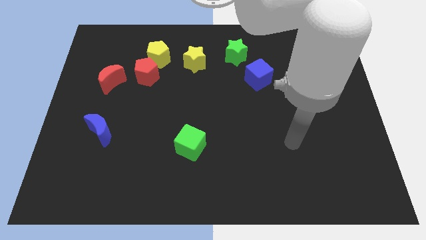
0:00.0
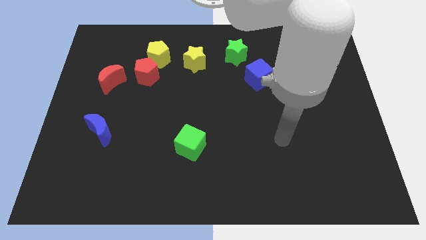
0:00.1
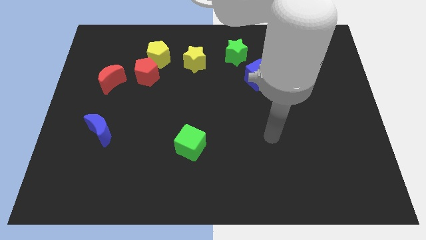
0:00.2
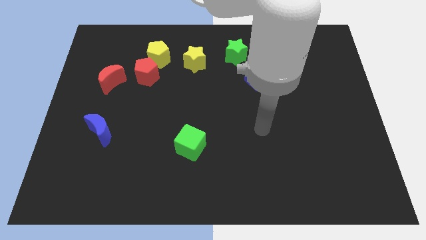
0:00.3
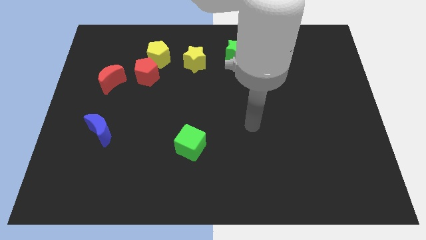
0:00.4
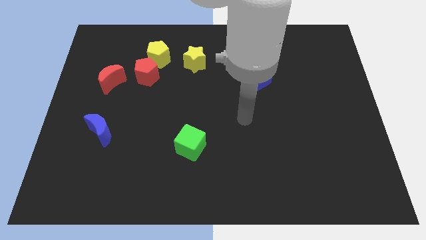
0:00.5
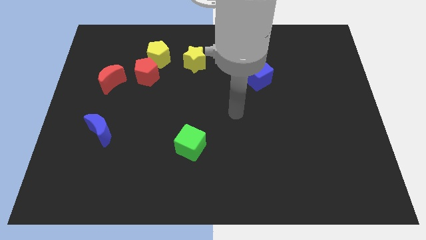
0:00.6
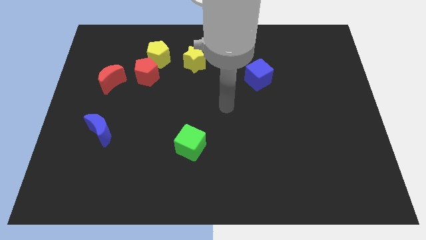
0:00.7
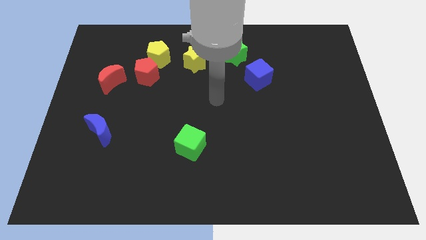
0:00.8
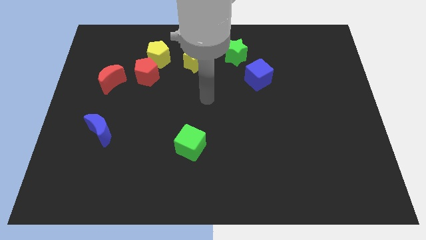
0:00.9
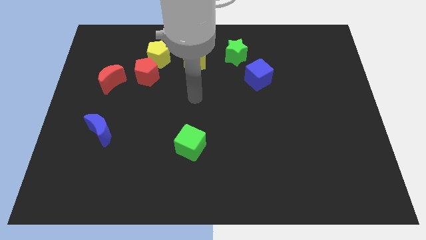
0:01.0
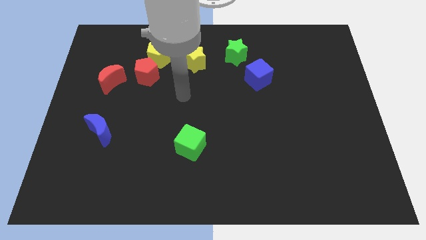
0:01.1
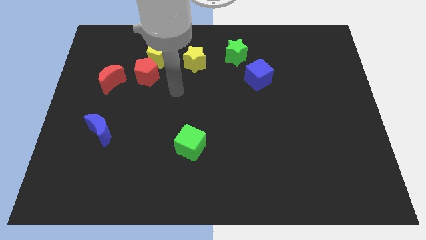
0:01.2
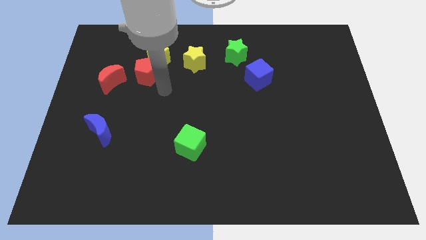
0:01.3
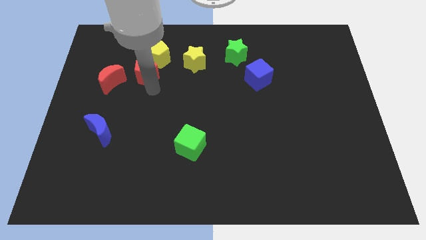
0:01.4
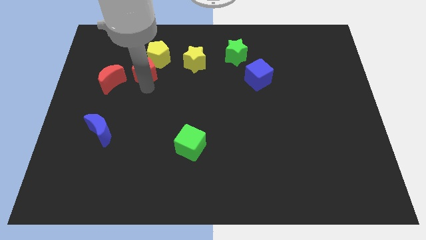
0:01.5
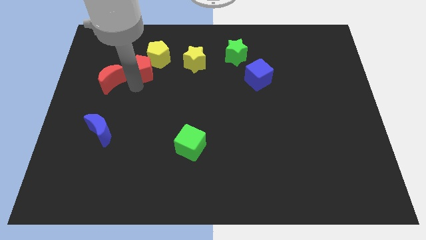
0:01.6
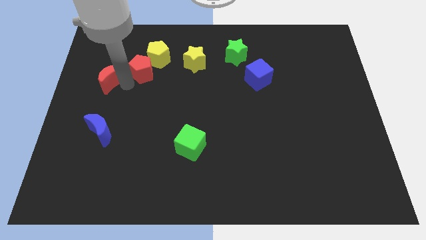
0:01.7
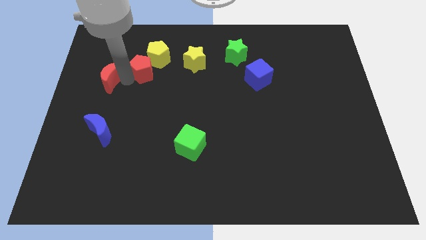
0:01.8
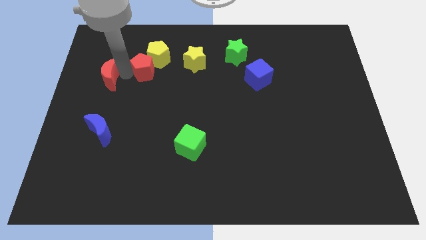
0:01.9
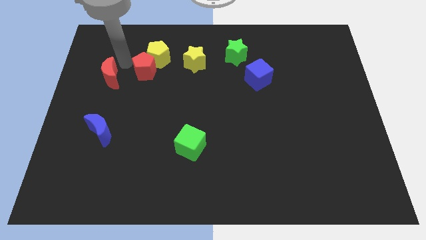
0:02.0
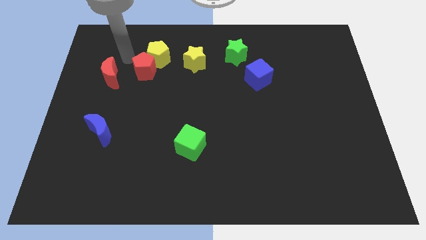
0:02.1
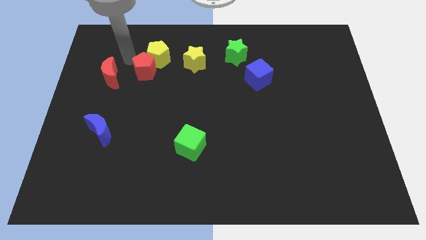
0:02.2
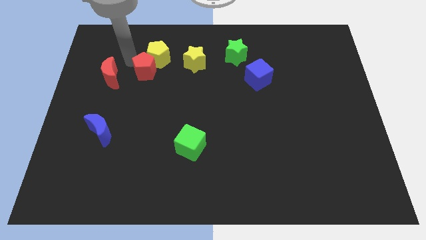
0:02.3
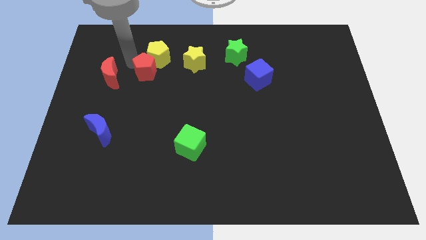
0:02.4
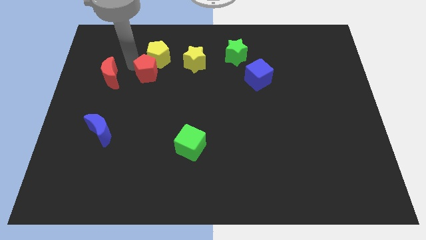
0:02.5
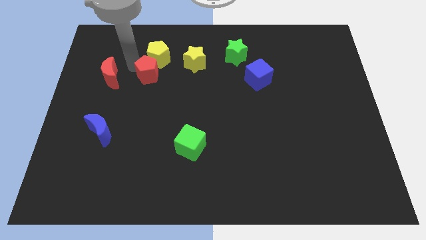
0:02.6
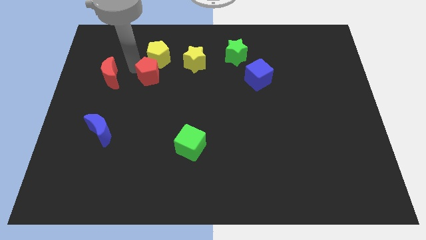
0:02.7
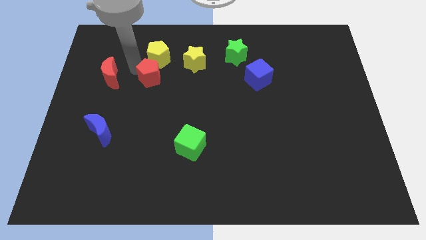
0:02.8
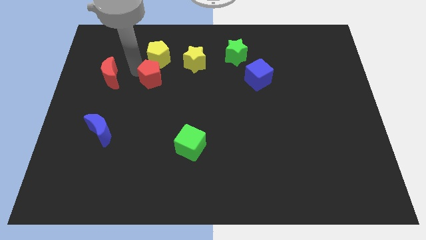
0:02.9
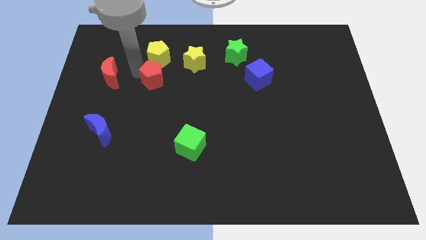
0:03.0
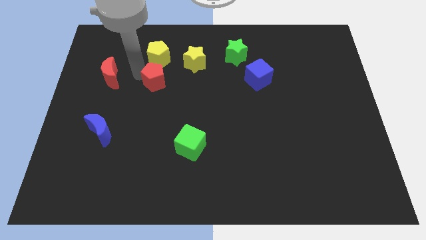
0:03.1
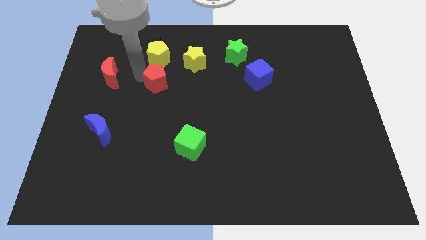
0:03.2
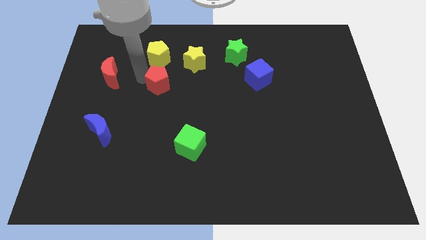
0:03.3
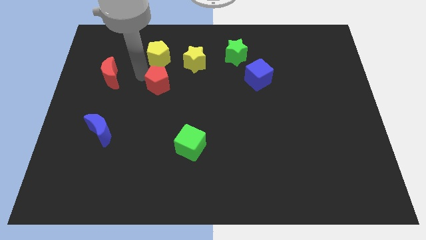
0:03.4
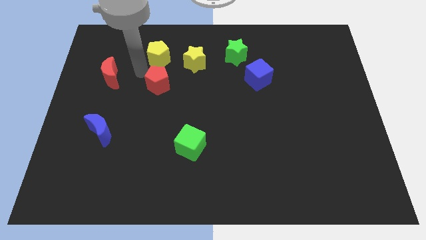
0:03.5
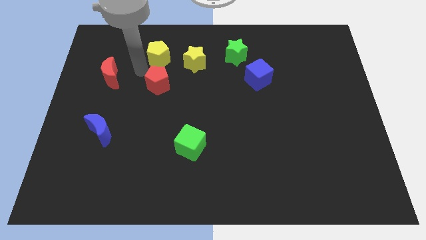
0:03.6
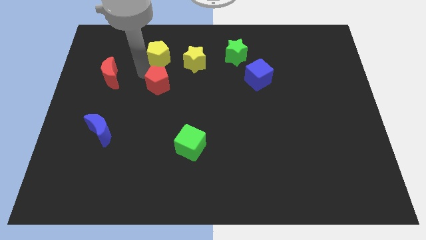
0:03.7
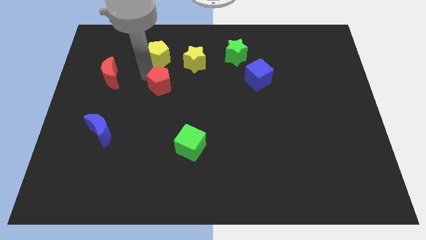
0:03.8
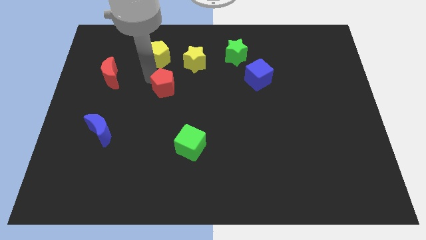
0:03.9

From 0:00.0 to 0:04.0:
move the red pentagon away from the yellow pentagon and red moon

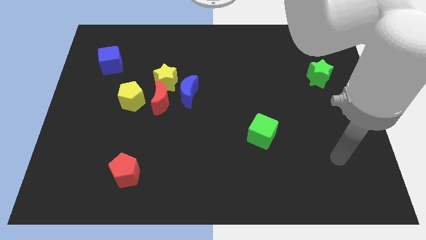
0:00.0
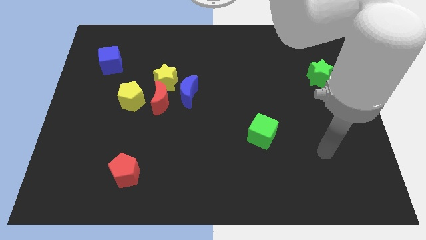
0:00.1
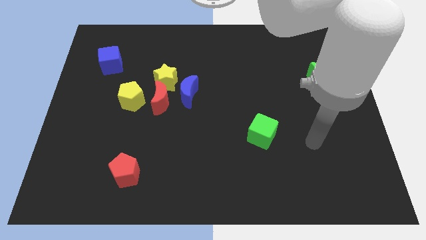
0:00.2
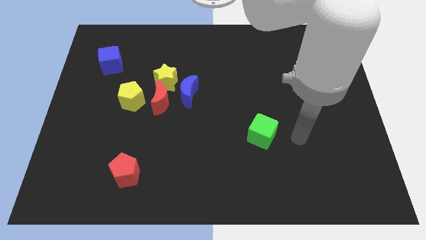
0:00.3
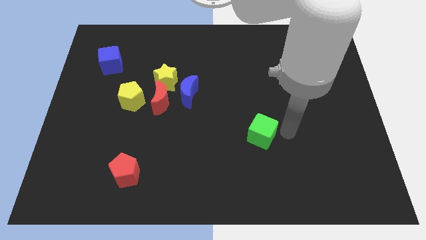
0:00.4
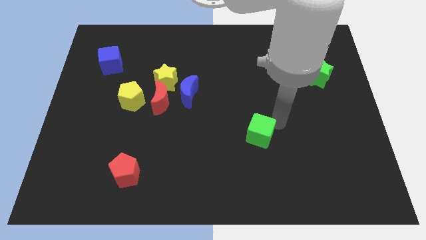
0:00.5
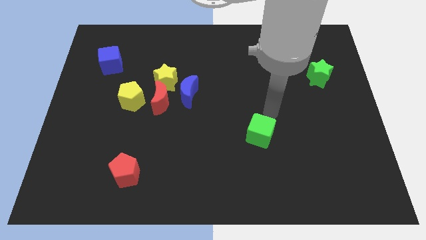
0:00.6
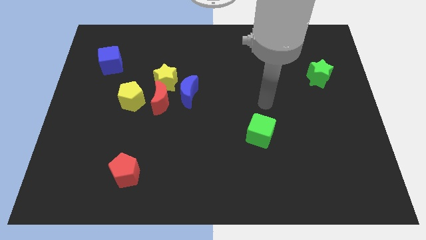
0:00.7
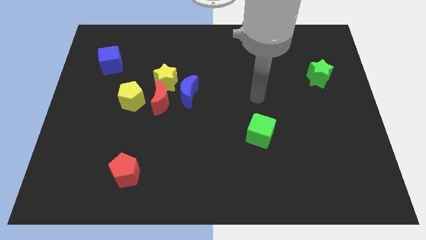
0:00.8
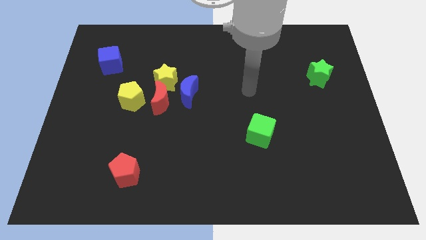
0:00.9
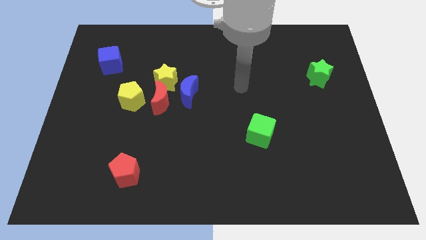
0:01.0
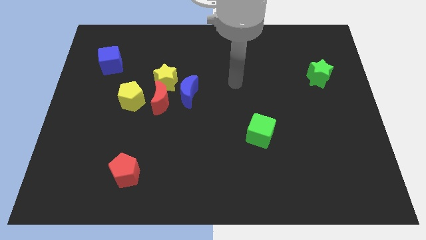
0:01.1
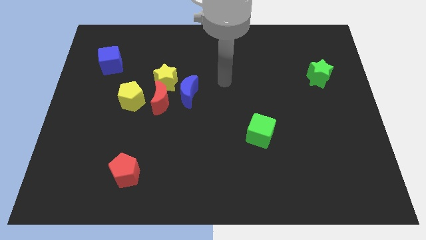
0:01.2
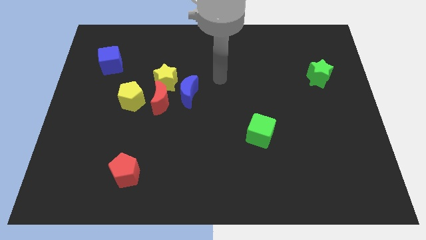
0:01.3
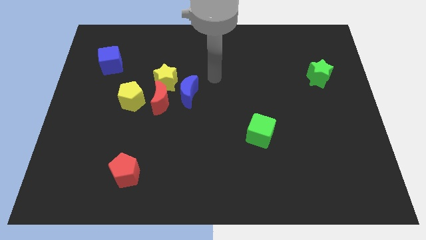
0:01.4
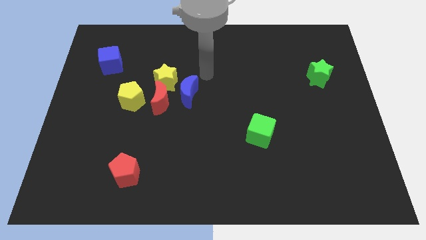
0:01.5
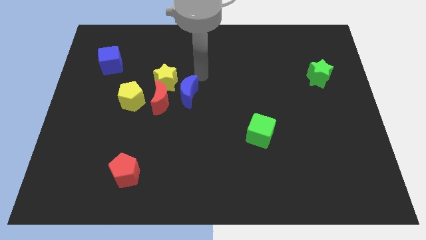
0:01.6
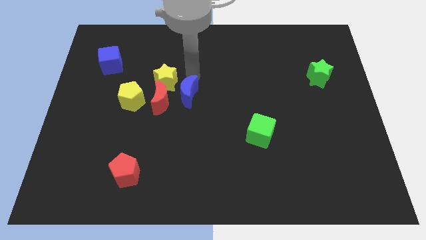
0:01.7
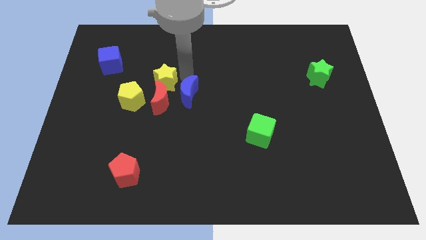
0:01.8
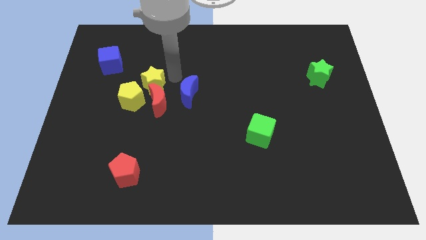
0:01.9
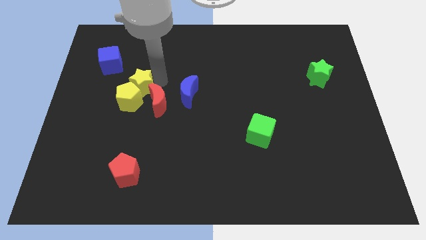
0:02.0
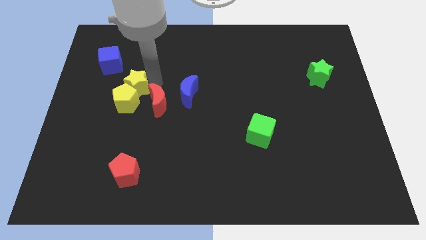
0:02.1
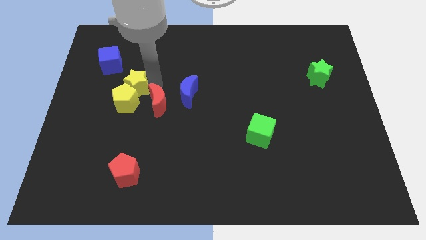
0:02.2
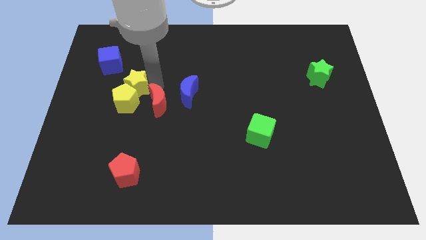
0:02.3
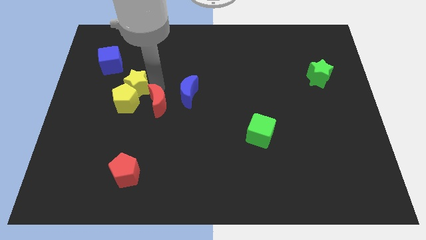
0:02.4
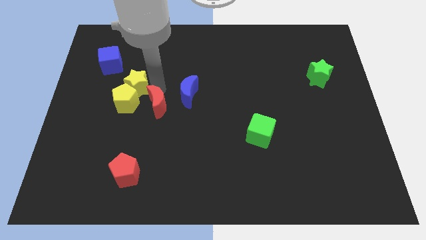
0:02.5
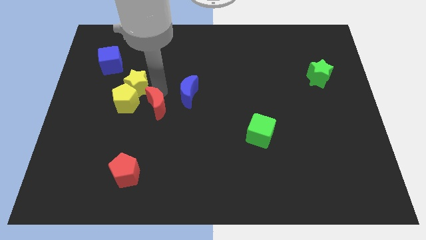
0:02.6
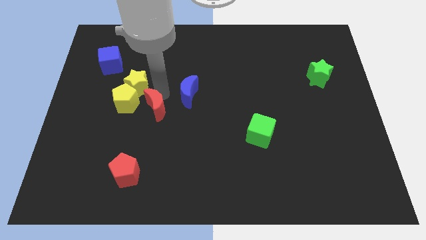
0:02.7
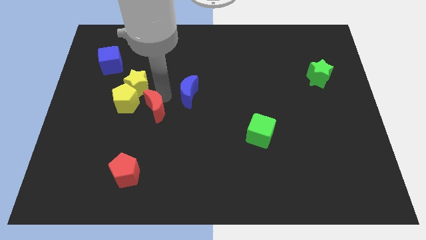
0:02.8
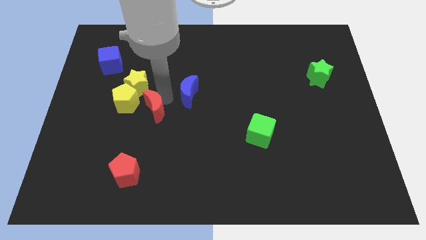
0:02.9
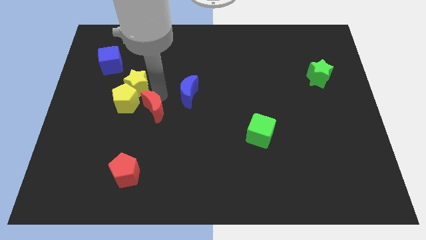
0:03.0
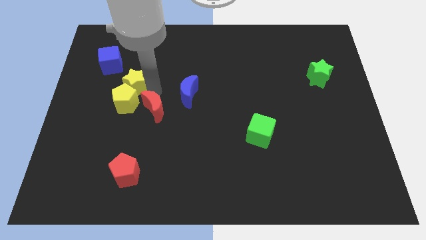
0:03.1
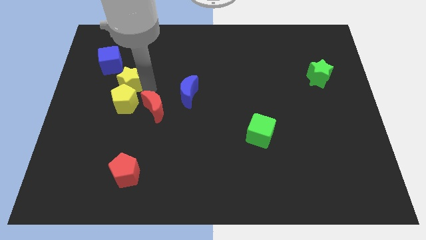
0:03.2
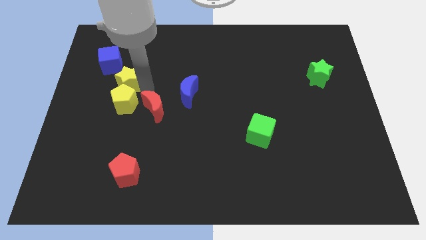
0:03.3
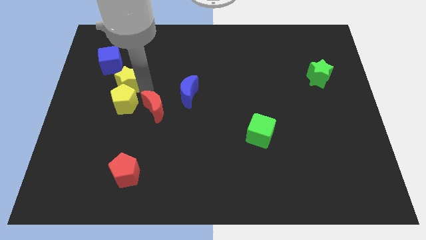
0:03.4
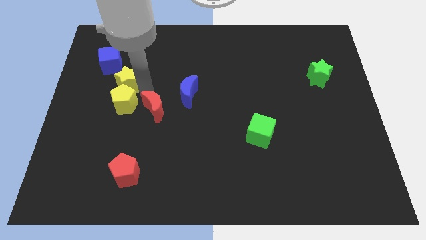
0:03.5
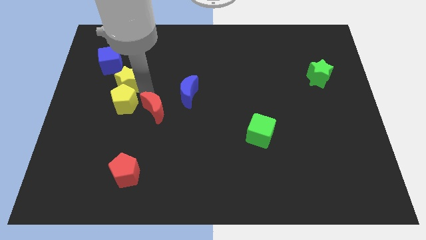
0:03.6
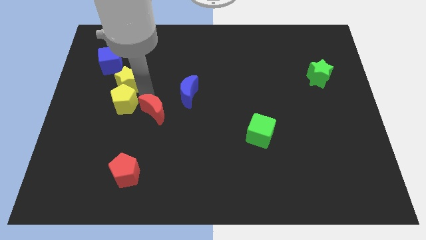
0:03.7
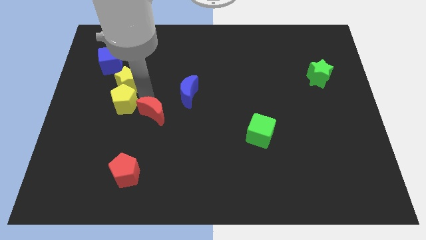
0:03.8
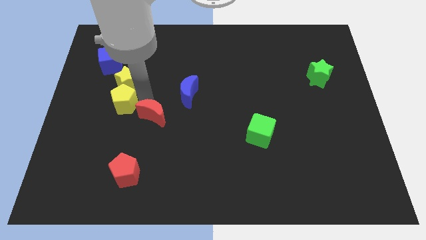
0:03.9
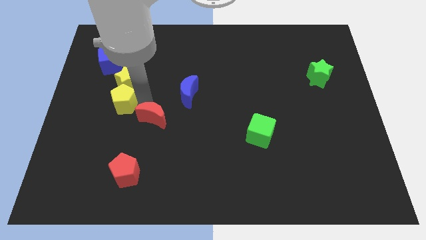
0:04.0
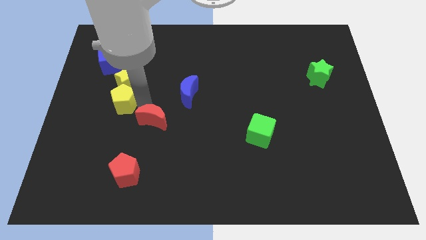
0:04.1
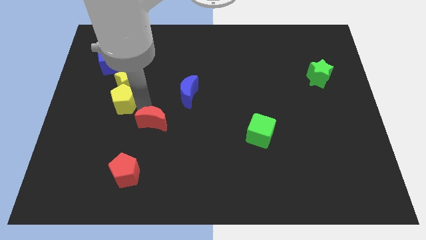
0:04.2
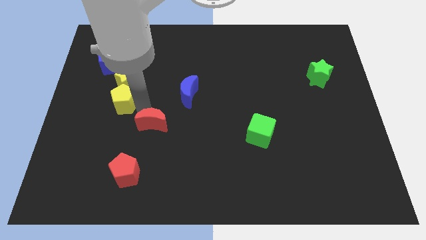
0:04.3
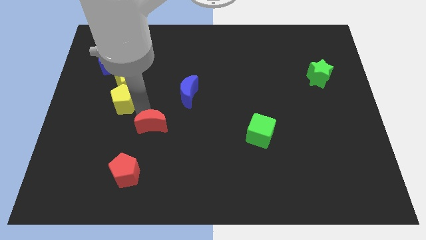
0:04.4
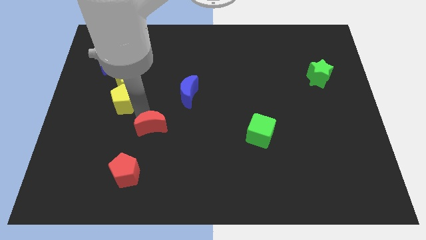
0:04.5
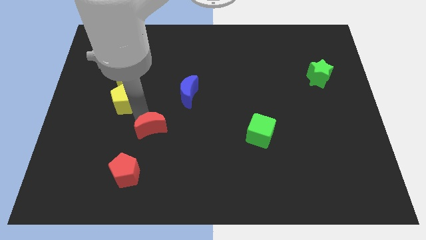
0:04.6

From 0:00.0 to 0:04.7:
pull the red moon apart from the yellow star, blue moon, and yellow pentagon

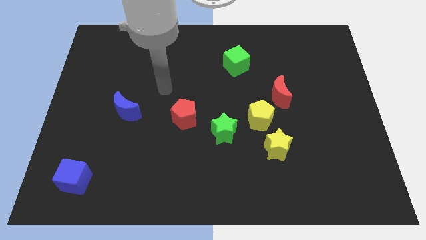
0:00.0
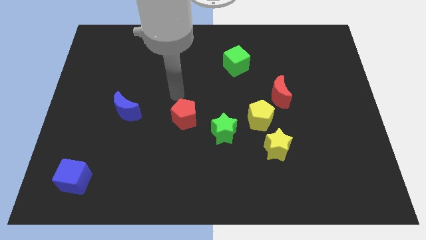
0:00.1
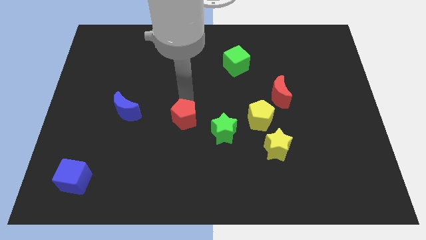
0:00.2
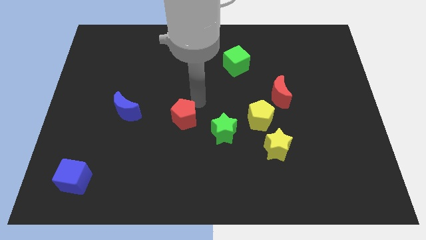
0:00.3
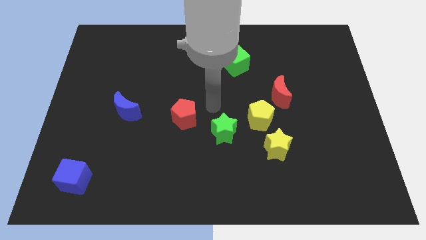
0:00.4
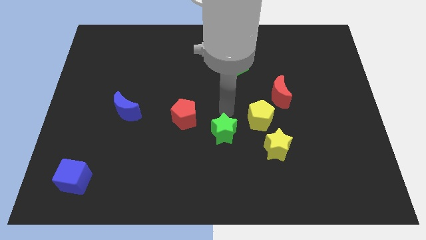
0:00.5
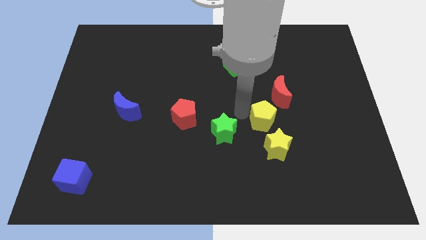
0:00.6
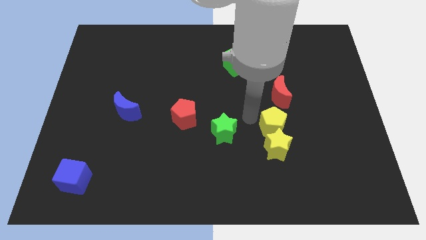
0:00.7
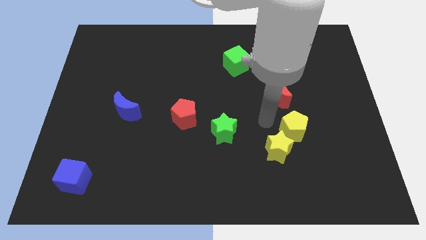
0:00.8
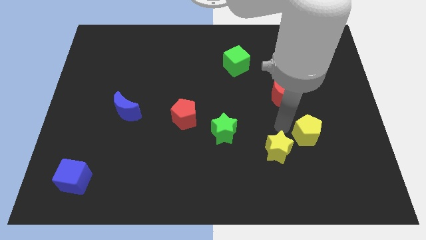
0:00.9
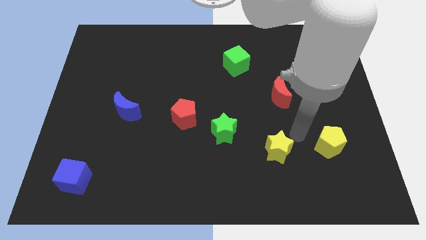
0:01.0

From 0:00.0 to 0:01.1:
pull the yellow star apart from the yellow pentagon
